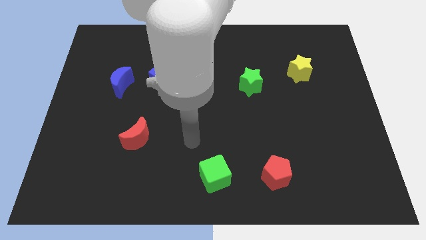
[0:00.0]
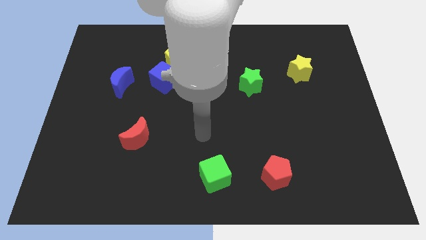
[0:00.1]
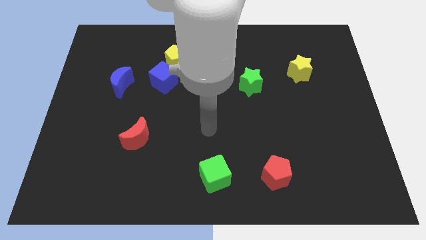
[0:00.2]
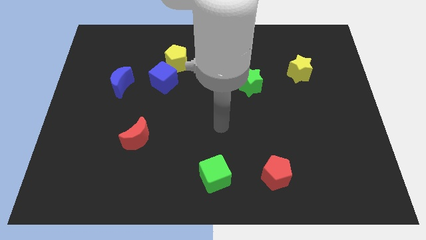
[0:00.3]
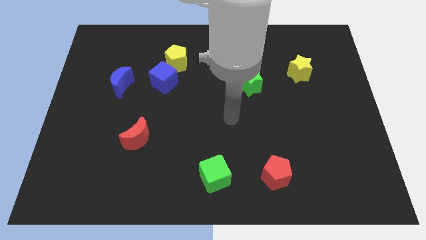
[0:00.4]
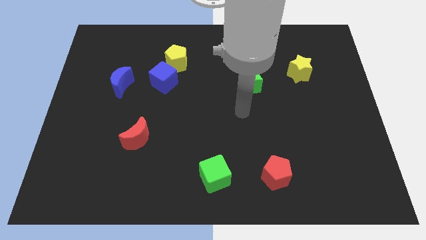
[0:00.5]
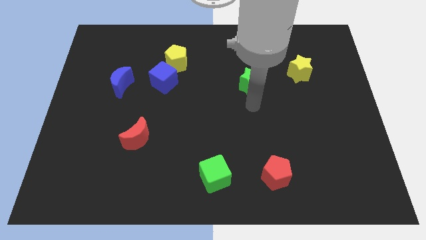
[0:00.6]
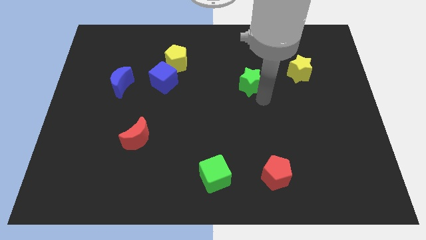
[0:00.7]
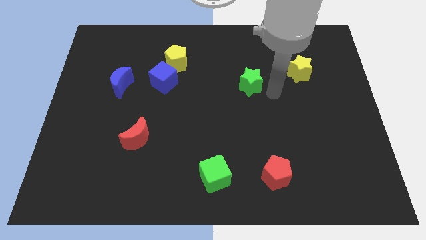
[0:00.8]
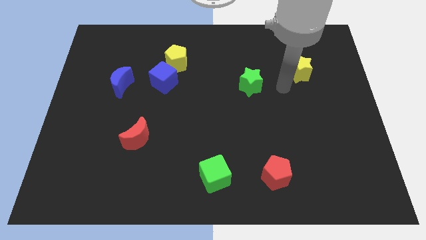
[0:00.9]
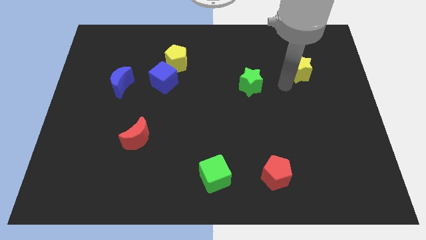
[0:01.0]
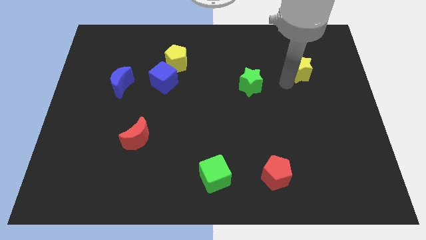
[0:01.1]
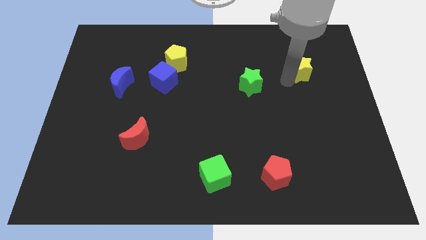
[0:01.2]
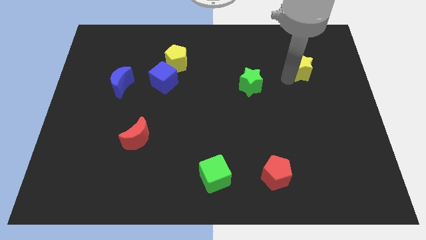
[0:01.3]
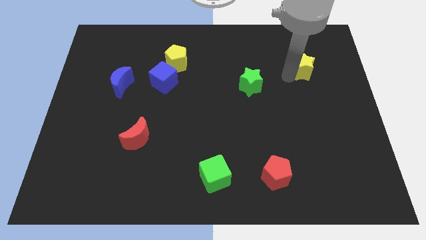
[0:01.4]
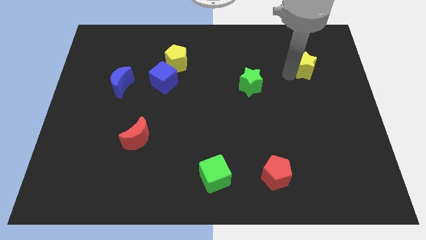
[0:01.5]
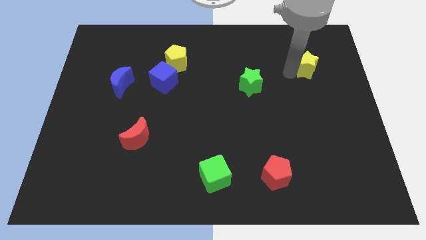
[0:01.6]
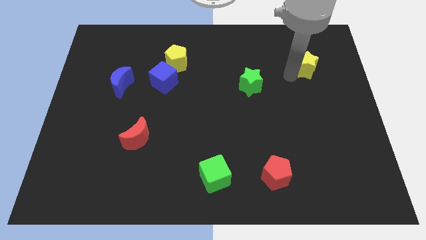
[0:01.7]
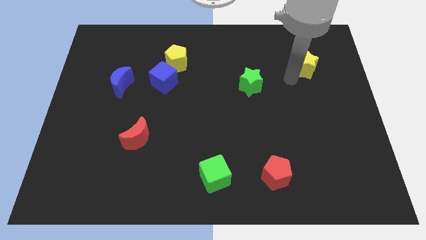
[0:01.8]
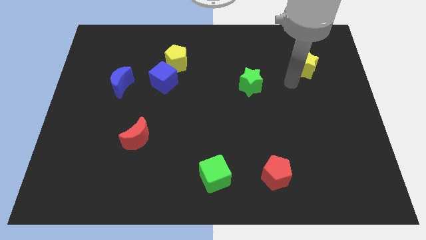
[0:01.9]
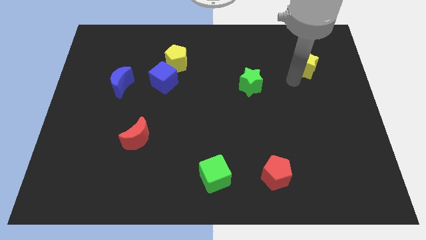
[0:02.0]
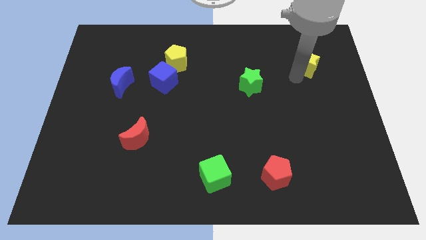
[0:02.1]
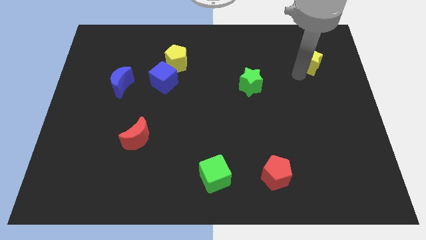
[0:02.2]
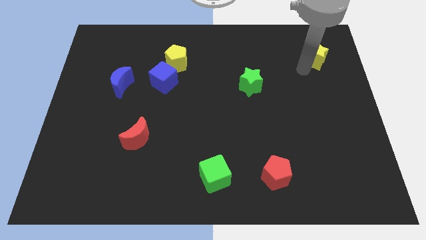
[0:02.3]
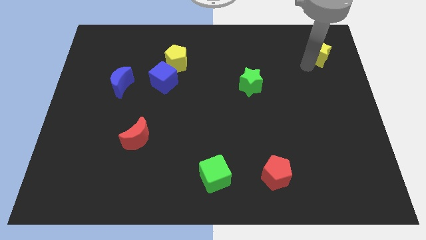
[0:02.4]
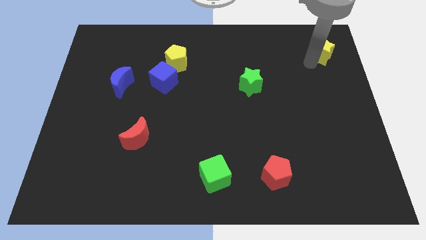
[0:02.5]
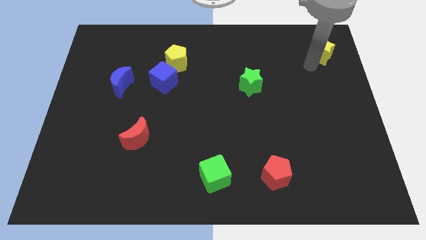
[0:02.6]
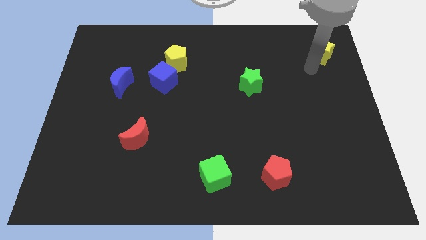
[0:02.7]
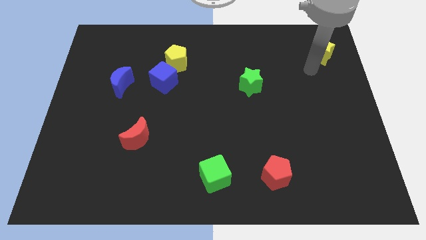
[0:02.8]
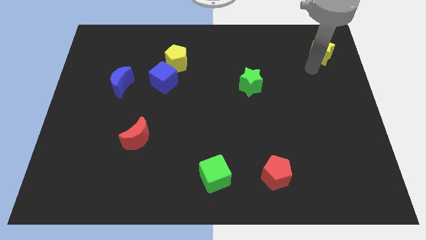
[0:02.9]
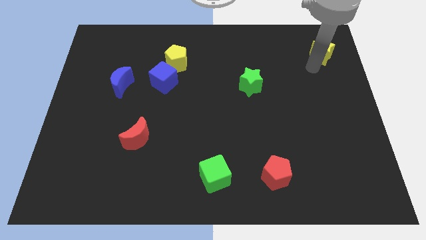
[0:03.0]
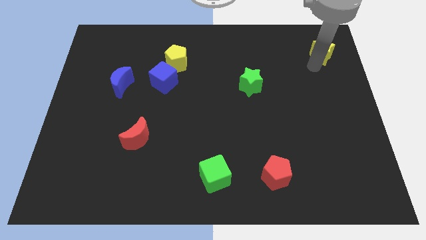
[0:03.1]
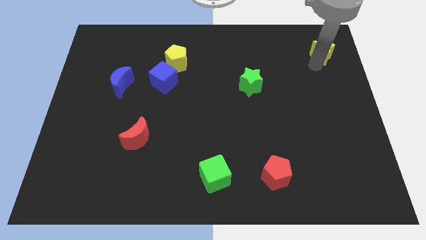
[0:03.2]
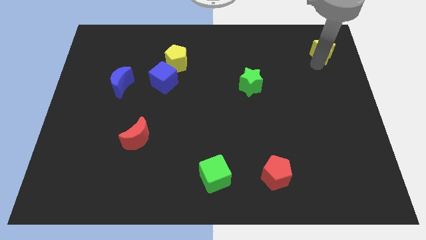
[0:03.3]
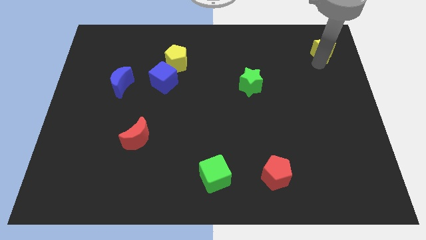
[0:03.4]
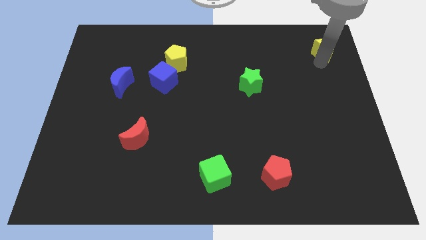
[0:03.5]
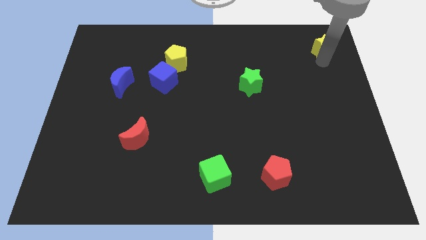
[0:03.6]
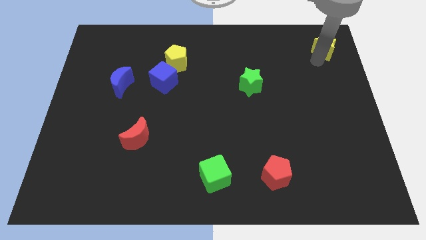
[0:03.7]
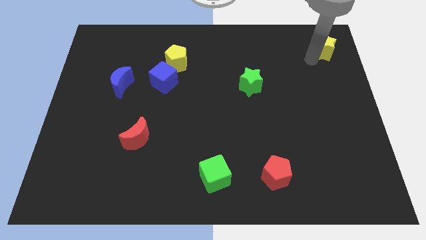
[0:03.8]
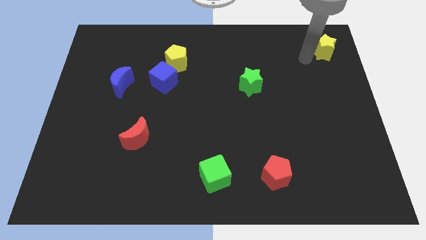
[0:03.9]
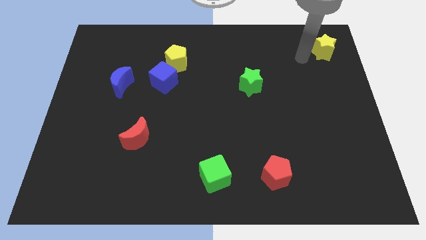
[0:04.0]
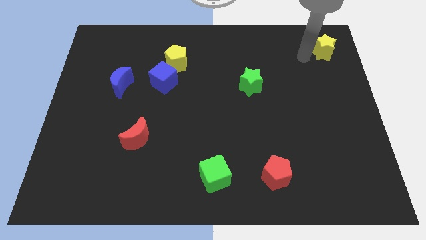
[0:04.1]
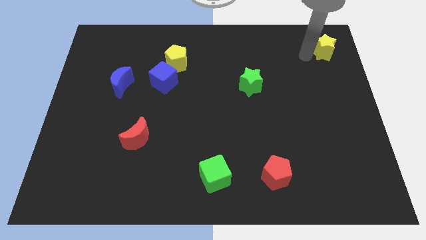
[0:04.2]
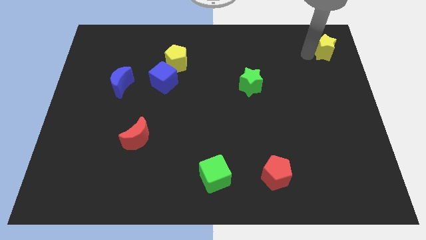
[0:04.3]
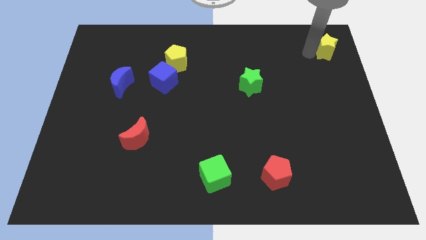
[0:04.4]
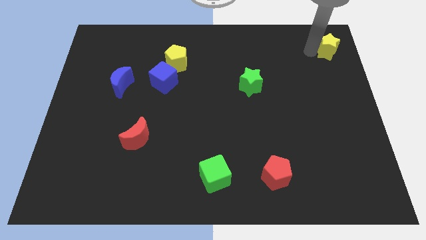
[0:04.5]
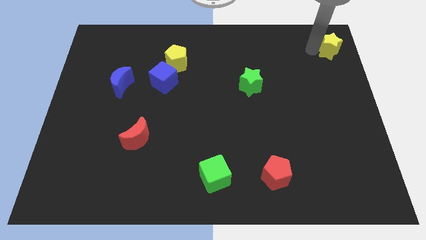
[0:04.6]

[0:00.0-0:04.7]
put the yellow star to the top right of the board

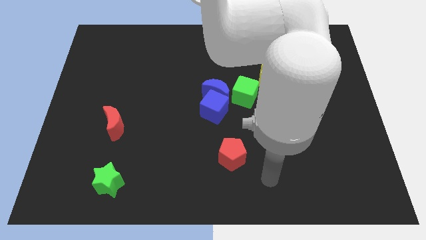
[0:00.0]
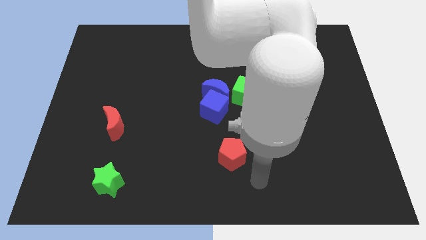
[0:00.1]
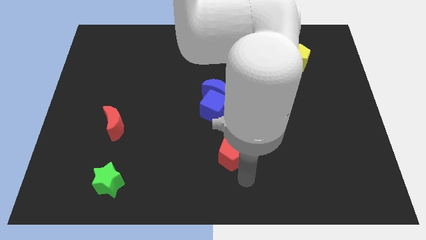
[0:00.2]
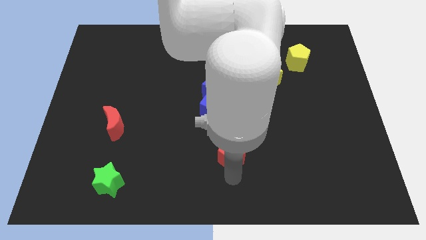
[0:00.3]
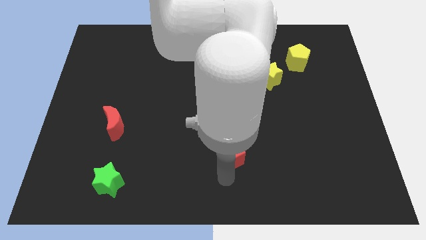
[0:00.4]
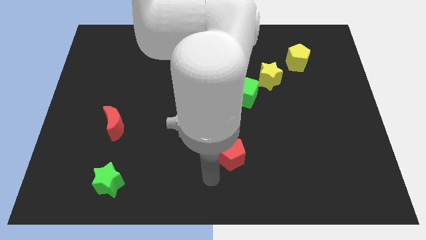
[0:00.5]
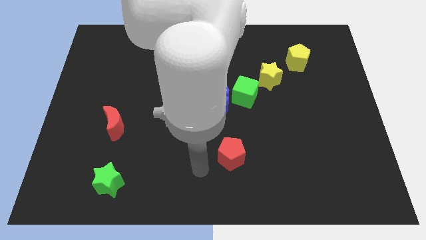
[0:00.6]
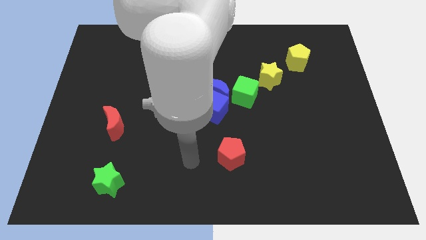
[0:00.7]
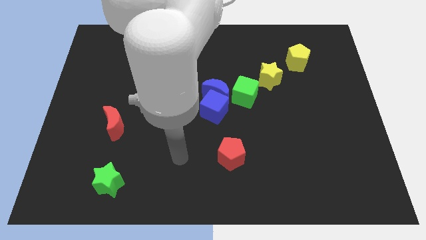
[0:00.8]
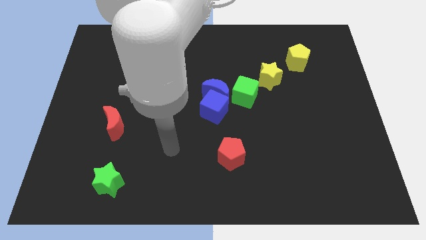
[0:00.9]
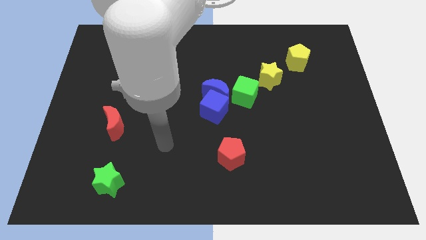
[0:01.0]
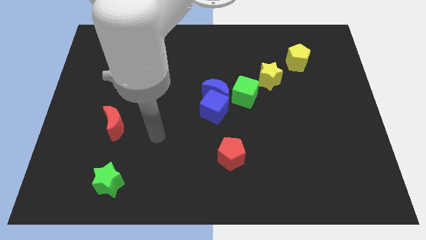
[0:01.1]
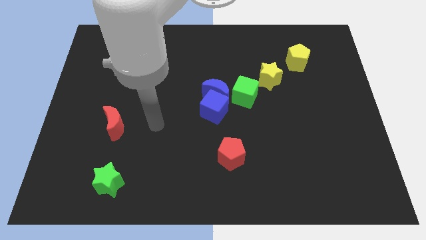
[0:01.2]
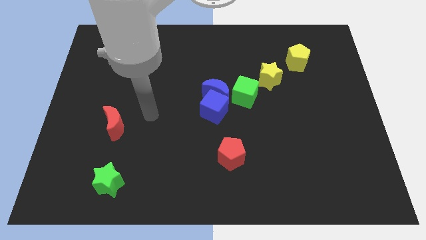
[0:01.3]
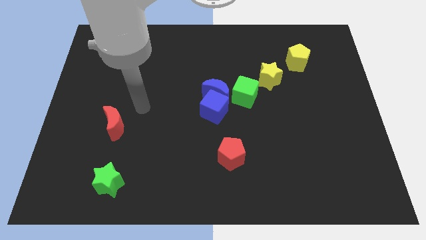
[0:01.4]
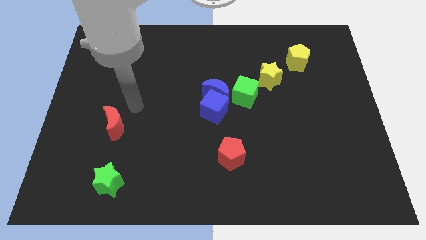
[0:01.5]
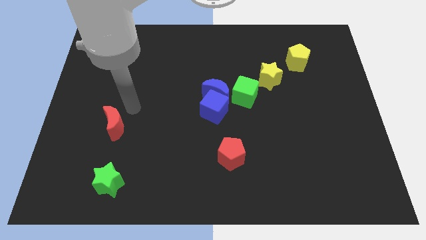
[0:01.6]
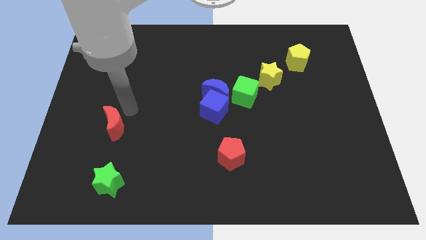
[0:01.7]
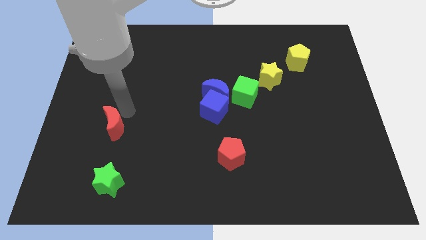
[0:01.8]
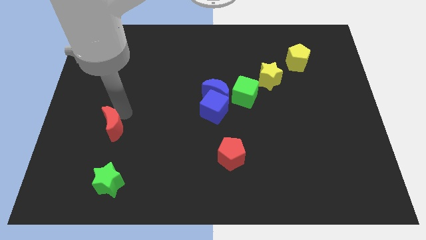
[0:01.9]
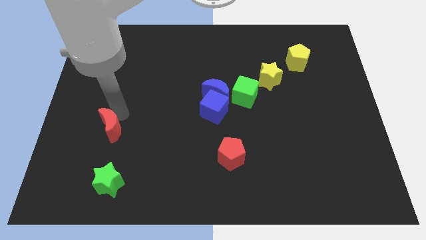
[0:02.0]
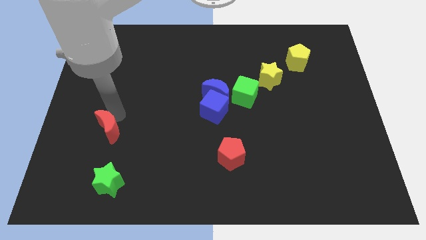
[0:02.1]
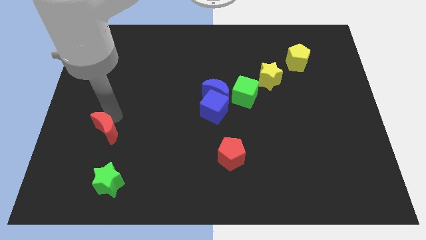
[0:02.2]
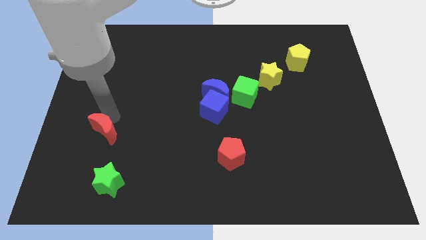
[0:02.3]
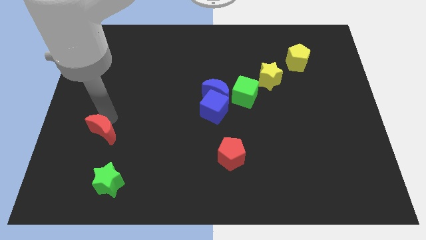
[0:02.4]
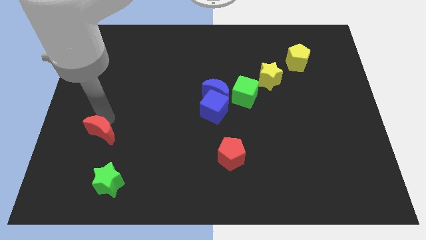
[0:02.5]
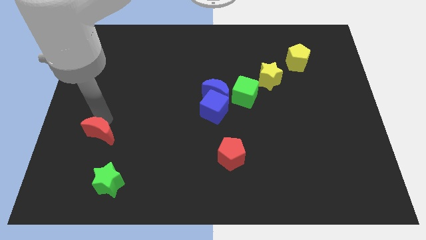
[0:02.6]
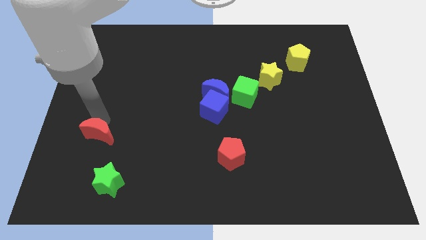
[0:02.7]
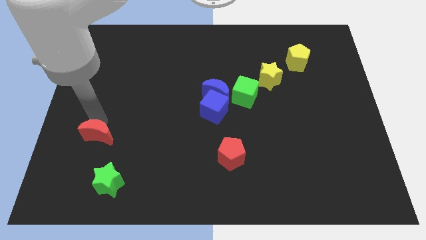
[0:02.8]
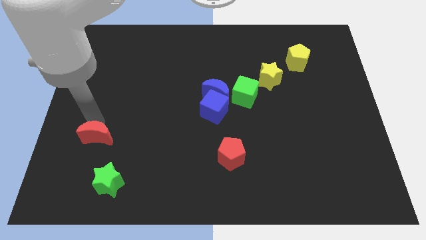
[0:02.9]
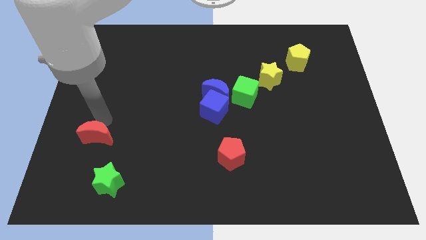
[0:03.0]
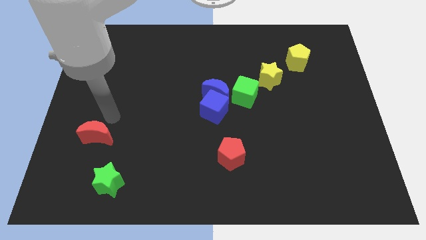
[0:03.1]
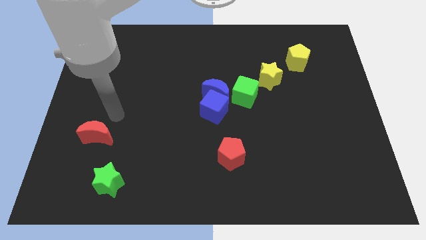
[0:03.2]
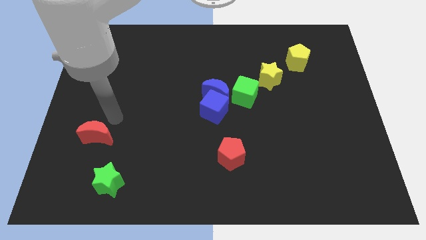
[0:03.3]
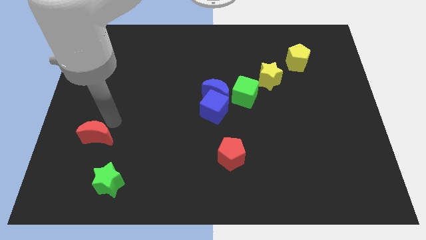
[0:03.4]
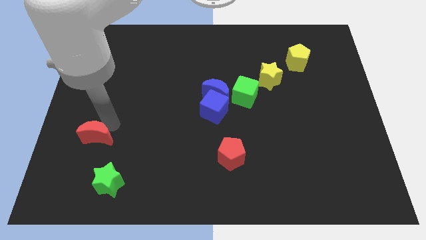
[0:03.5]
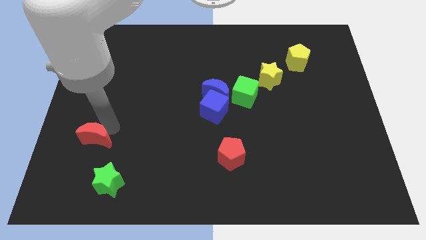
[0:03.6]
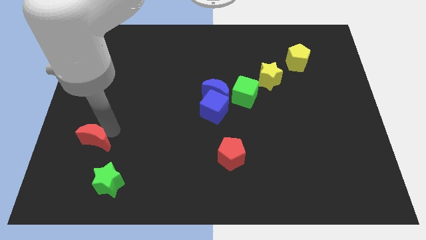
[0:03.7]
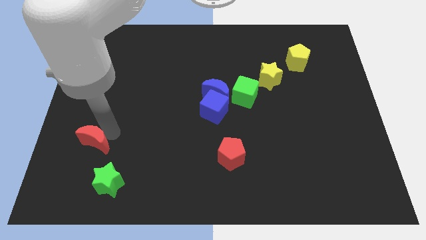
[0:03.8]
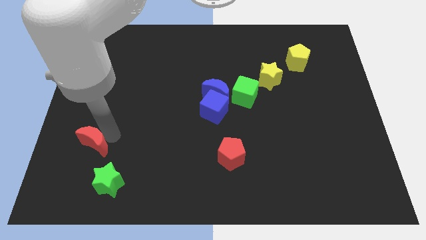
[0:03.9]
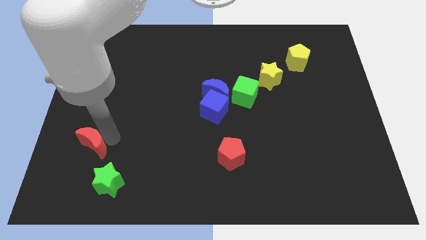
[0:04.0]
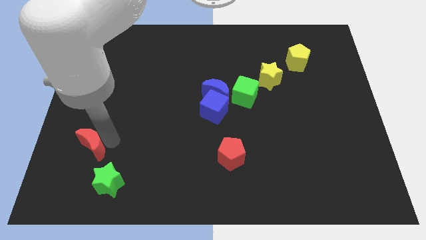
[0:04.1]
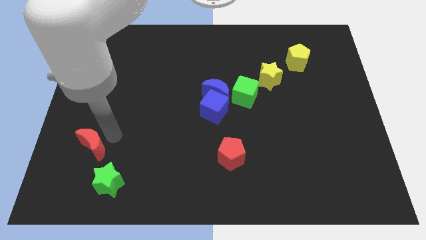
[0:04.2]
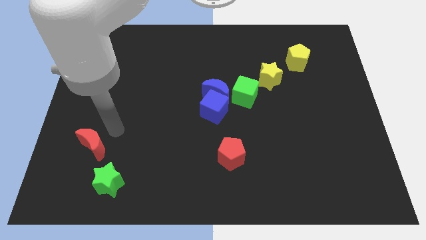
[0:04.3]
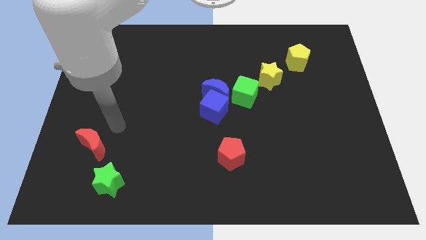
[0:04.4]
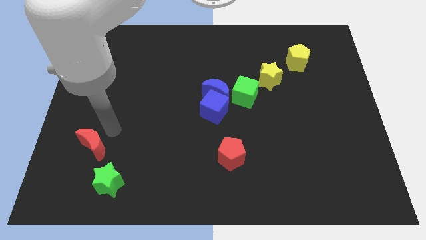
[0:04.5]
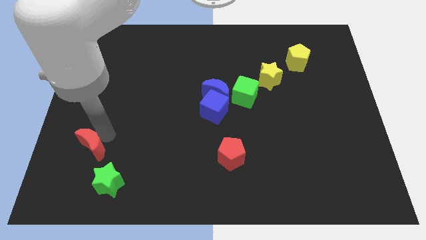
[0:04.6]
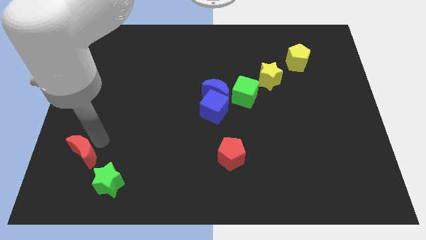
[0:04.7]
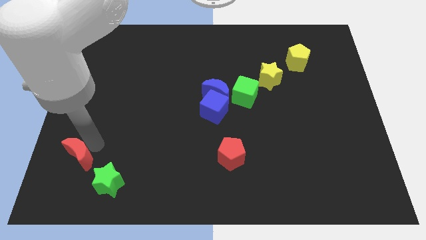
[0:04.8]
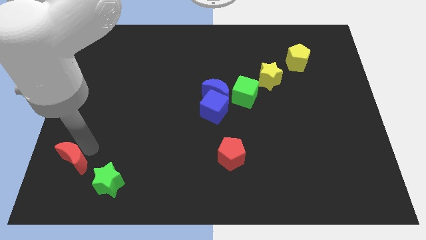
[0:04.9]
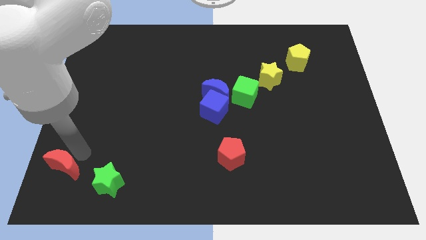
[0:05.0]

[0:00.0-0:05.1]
push the red moon to the bottom left
